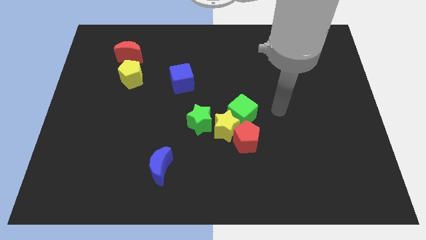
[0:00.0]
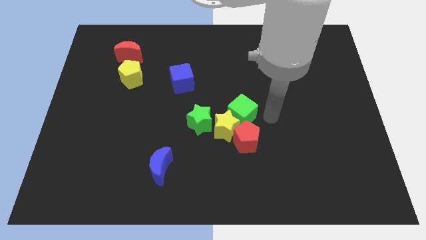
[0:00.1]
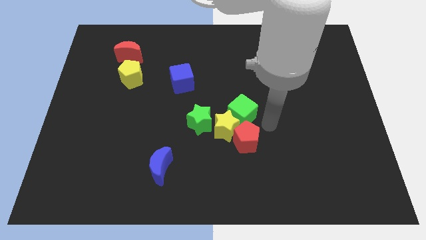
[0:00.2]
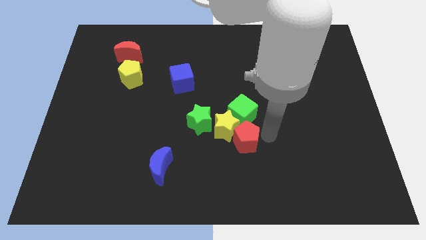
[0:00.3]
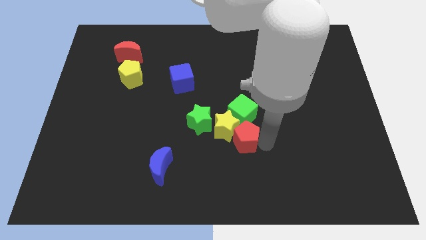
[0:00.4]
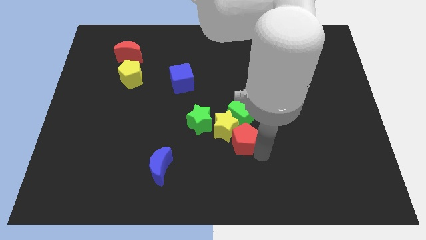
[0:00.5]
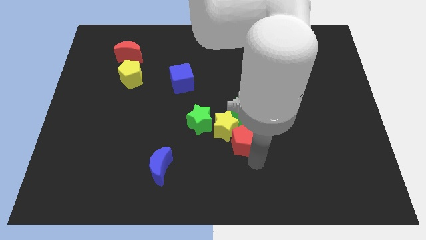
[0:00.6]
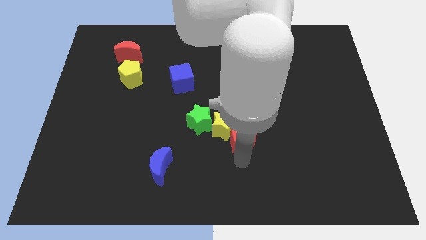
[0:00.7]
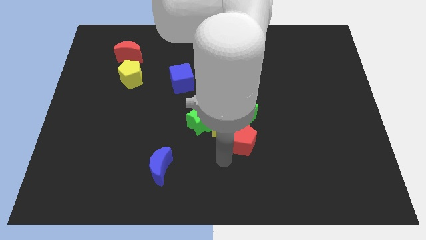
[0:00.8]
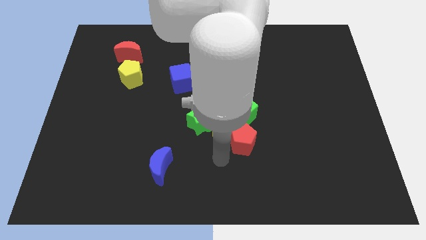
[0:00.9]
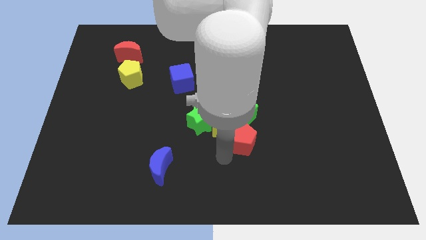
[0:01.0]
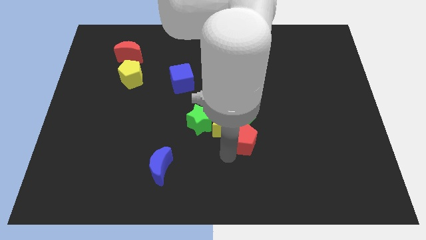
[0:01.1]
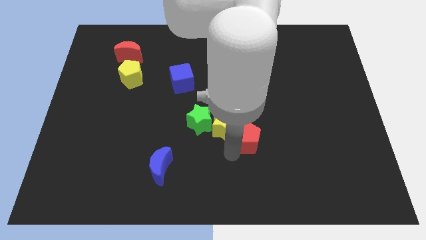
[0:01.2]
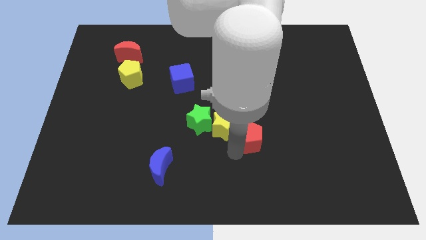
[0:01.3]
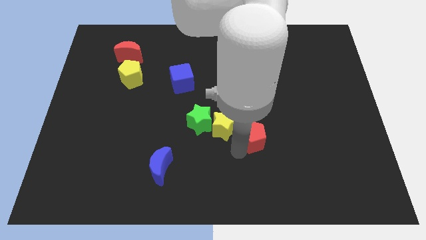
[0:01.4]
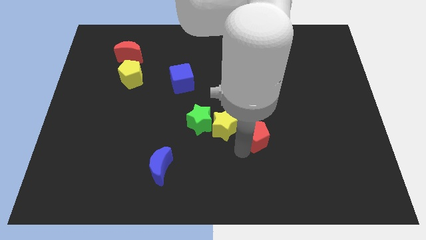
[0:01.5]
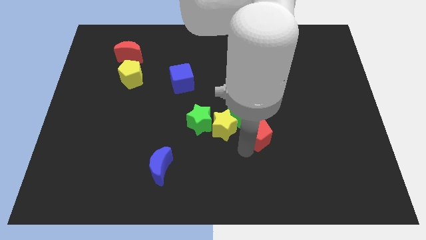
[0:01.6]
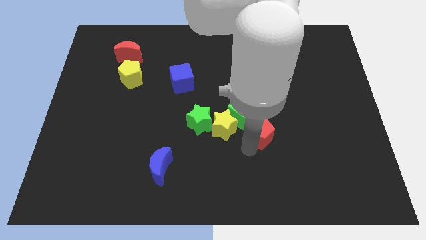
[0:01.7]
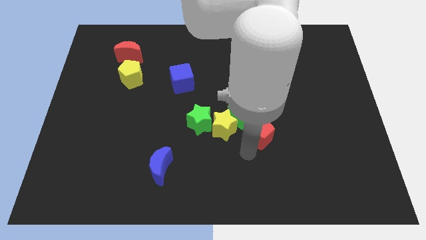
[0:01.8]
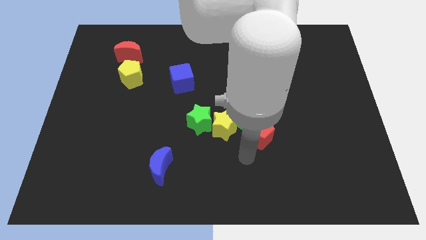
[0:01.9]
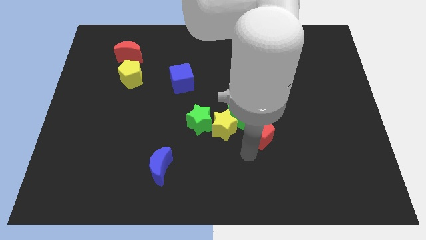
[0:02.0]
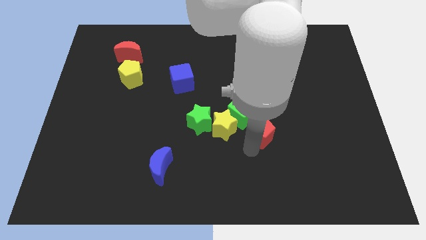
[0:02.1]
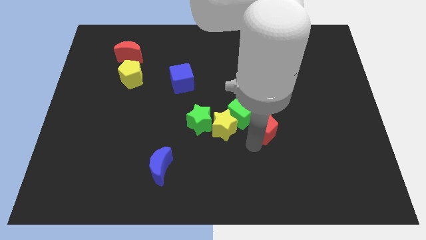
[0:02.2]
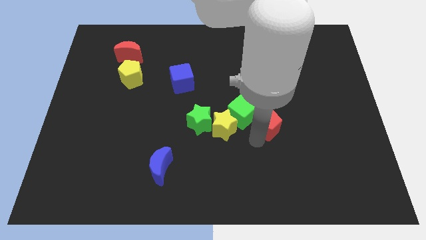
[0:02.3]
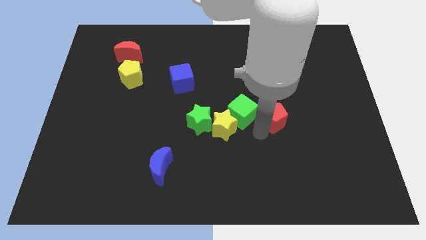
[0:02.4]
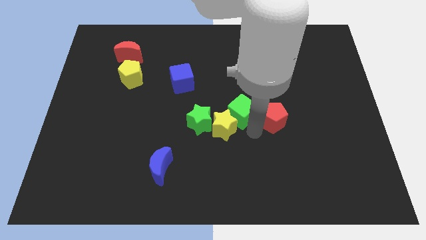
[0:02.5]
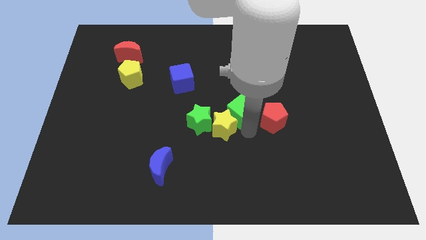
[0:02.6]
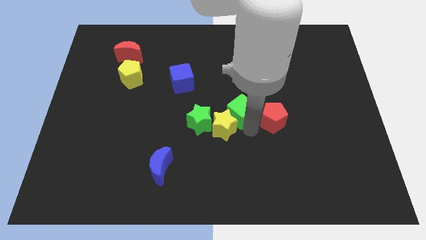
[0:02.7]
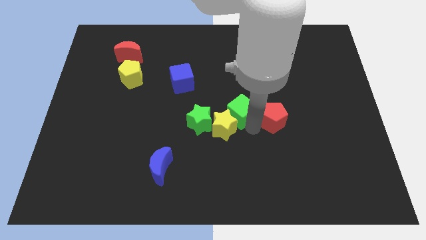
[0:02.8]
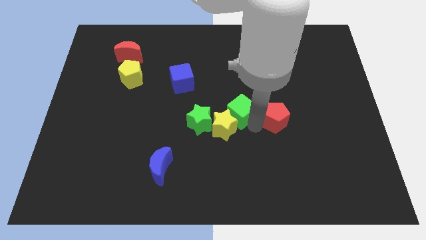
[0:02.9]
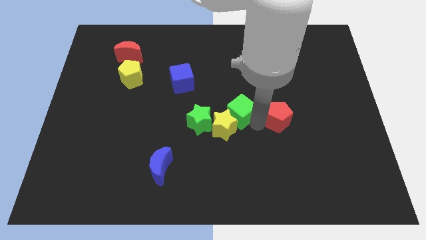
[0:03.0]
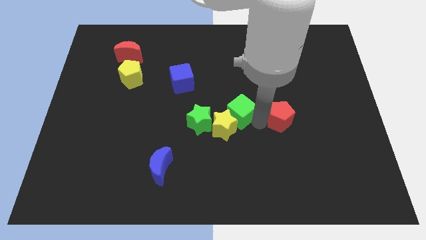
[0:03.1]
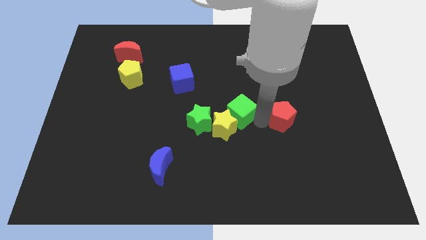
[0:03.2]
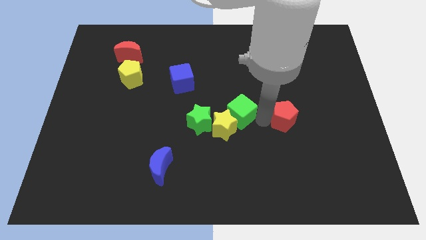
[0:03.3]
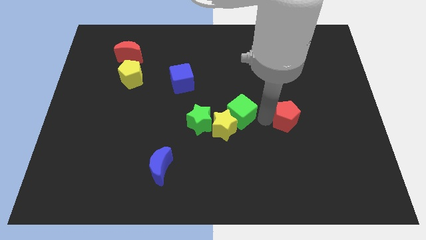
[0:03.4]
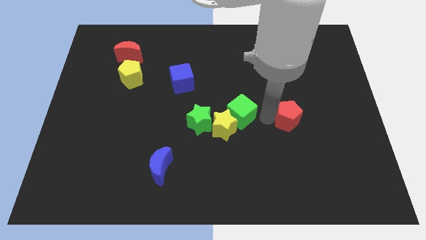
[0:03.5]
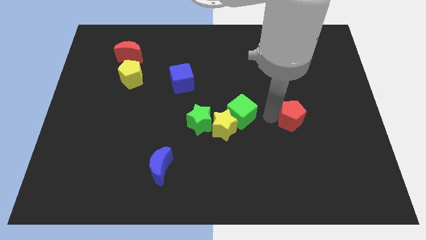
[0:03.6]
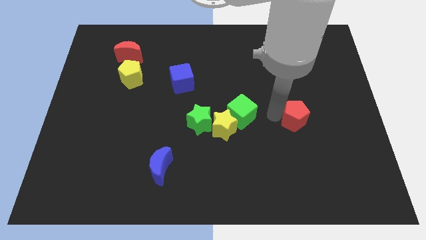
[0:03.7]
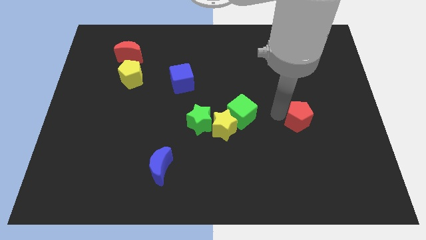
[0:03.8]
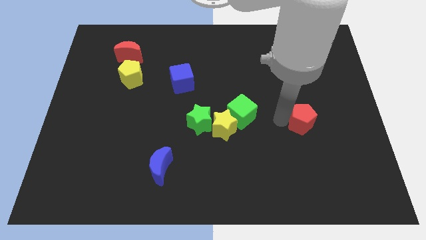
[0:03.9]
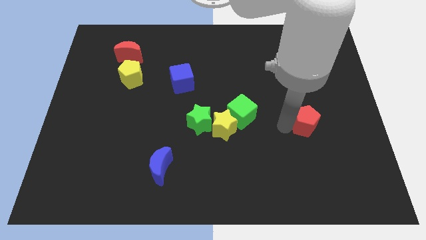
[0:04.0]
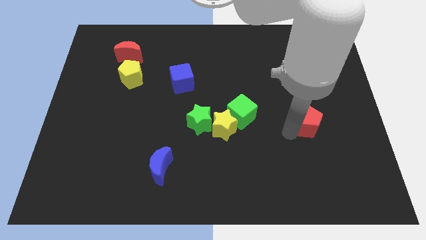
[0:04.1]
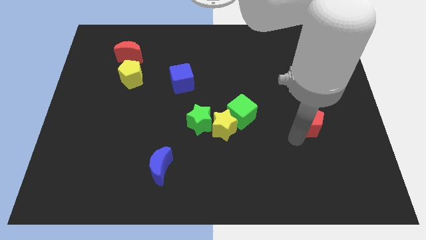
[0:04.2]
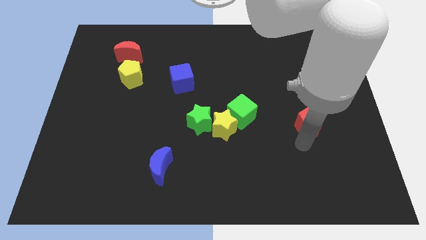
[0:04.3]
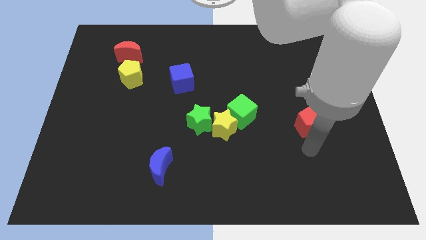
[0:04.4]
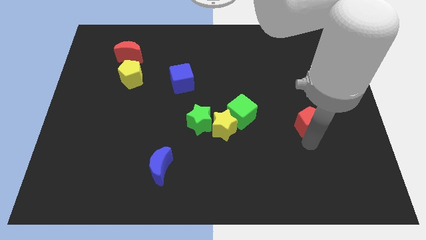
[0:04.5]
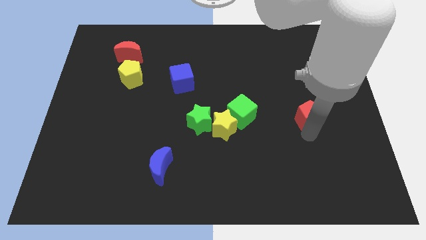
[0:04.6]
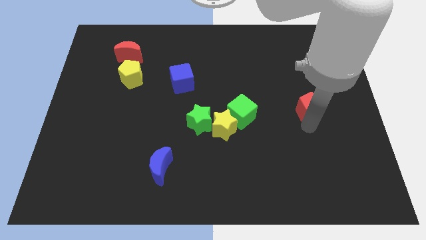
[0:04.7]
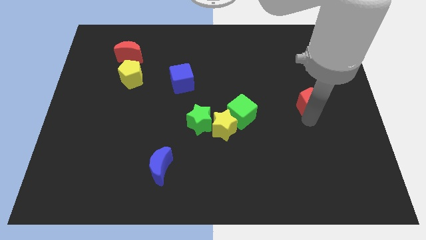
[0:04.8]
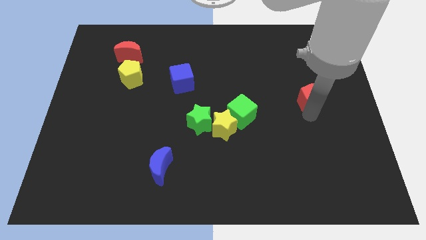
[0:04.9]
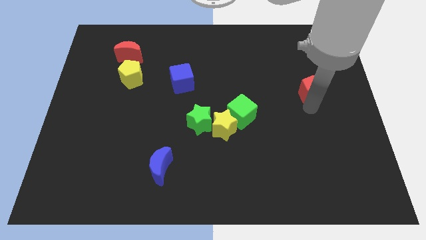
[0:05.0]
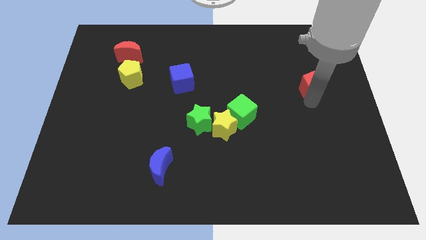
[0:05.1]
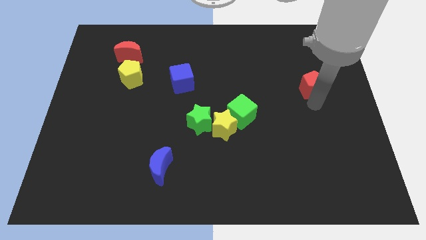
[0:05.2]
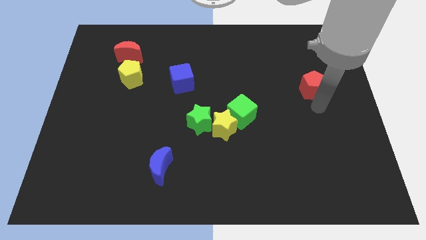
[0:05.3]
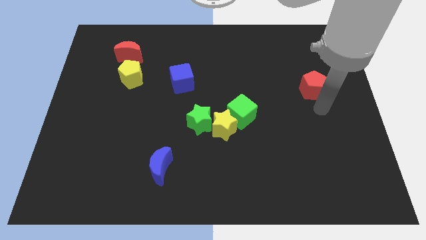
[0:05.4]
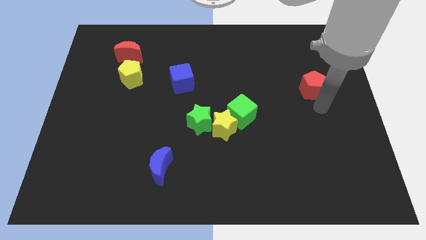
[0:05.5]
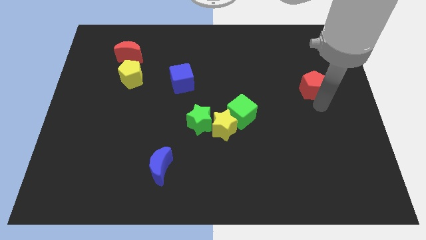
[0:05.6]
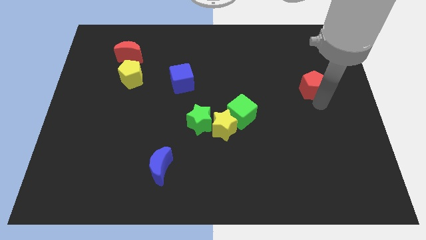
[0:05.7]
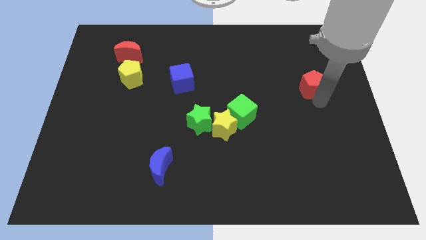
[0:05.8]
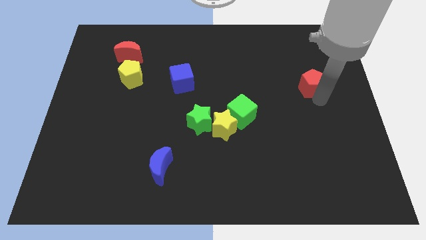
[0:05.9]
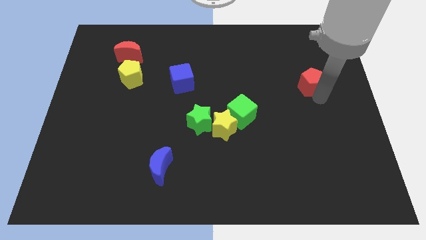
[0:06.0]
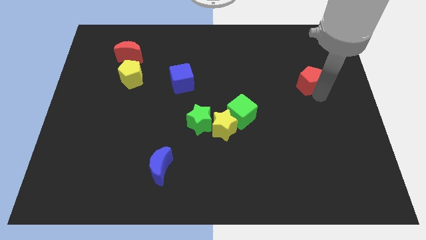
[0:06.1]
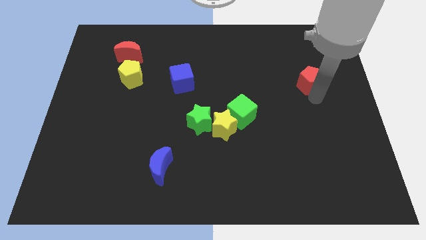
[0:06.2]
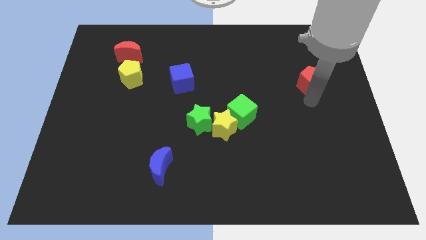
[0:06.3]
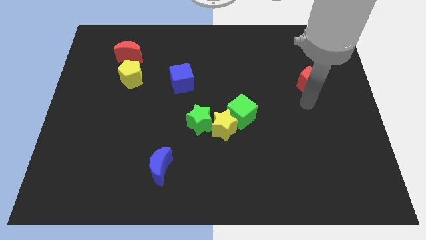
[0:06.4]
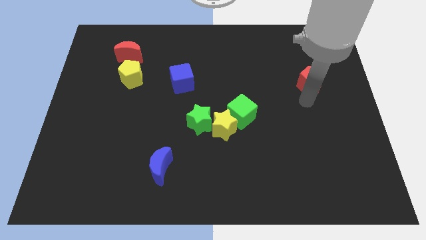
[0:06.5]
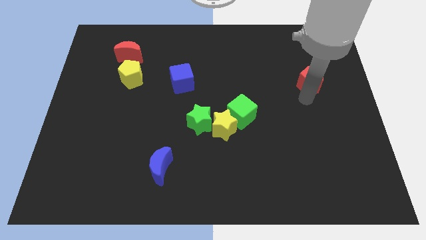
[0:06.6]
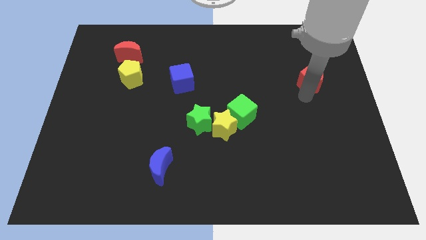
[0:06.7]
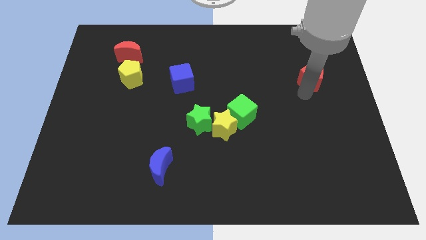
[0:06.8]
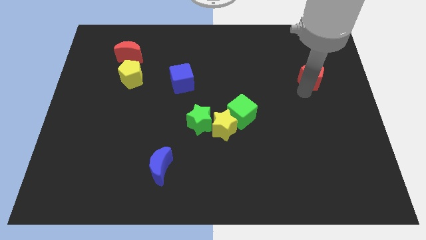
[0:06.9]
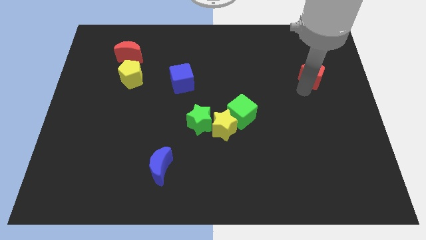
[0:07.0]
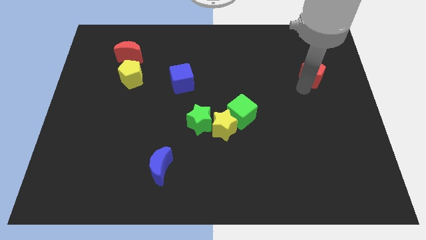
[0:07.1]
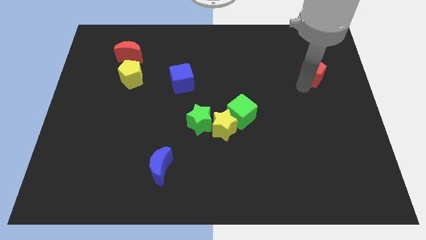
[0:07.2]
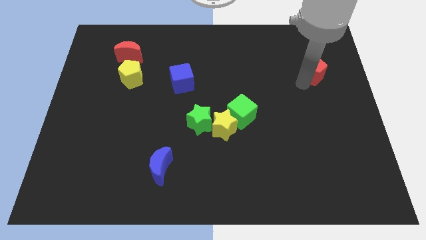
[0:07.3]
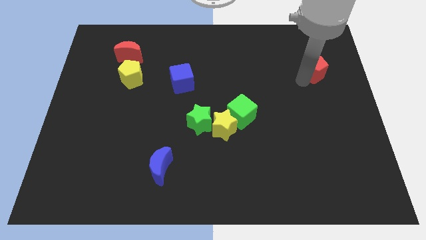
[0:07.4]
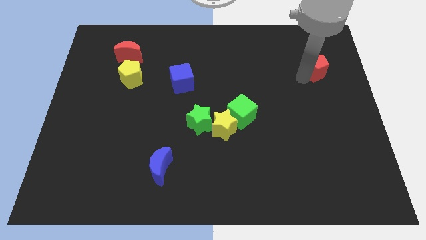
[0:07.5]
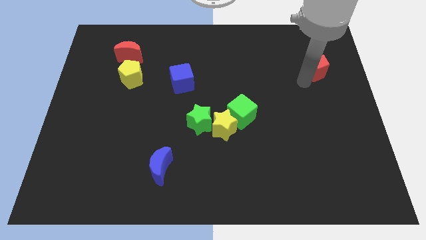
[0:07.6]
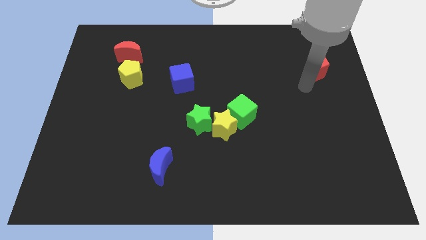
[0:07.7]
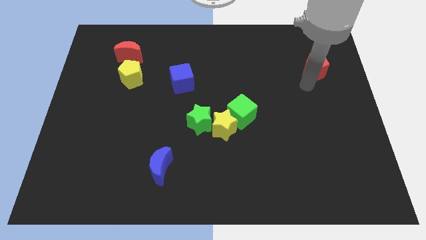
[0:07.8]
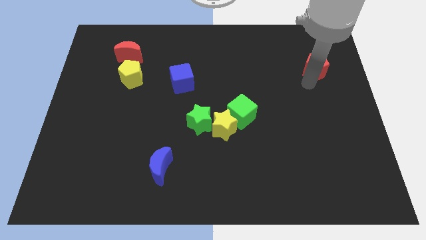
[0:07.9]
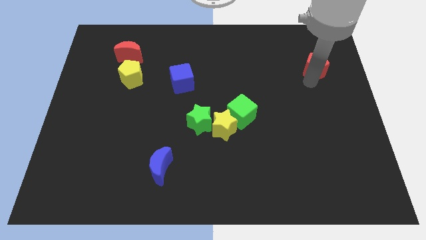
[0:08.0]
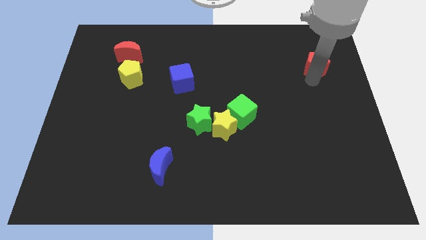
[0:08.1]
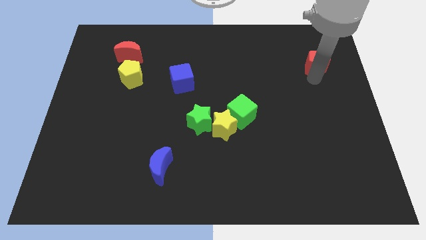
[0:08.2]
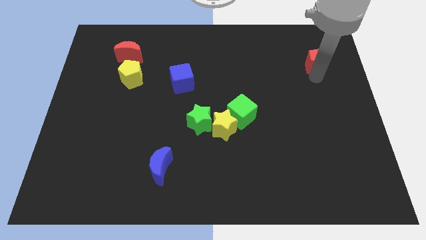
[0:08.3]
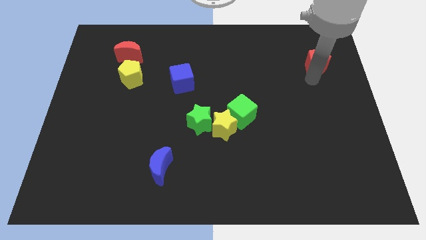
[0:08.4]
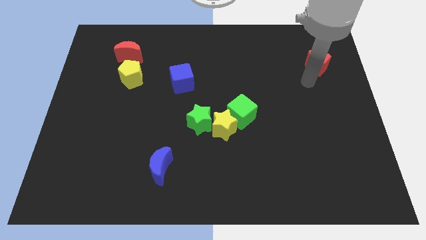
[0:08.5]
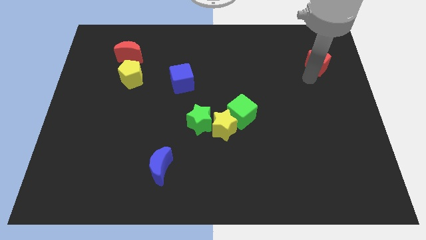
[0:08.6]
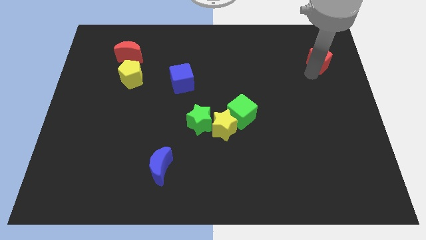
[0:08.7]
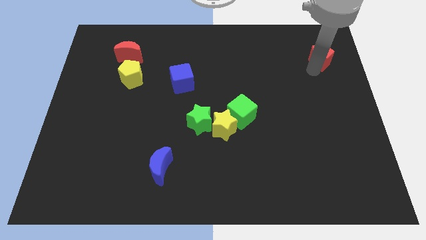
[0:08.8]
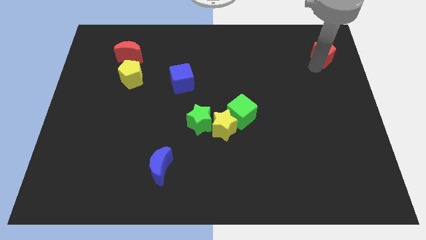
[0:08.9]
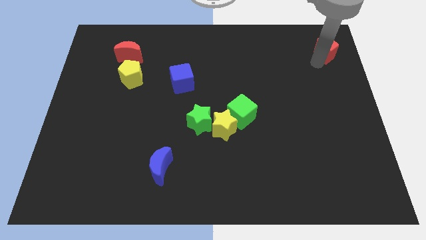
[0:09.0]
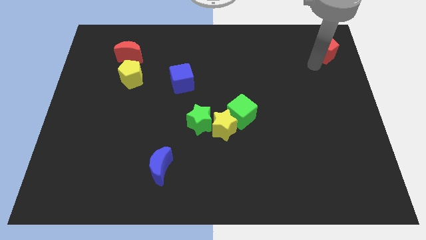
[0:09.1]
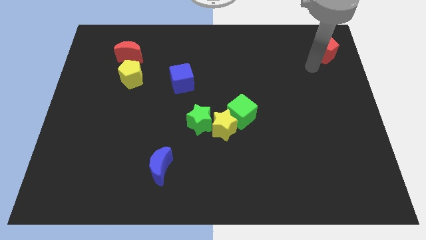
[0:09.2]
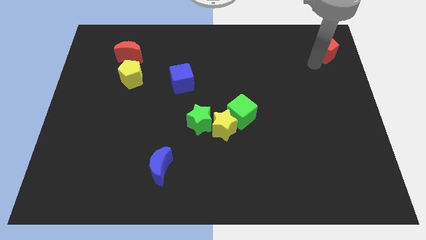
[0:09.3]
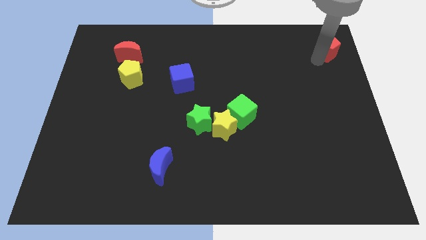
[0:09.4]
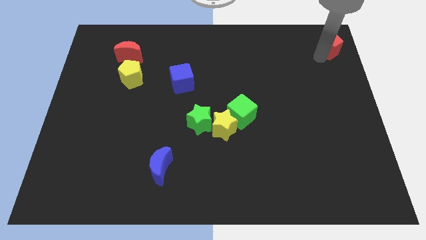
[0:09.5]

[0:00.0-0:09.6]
push the red pentagon to the upper right corner
